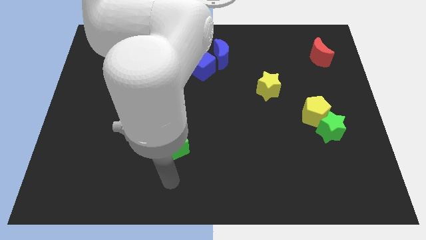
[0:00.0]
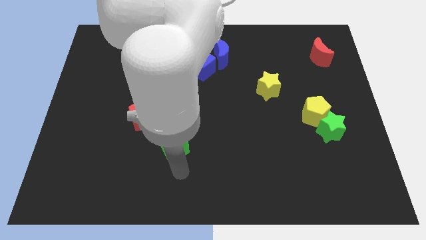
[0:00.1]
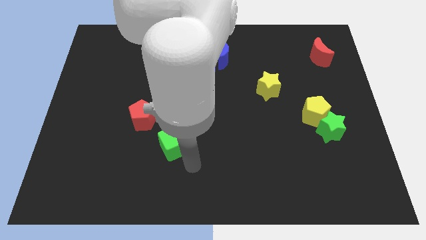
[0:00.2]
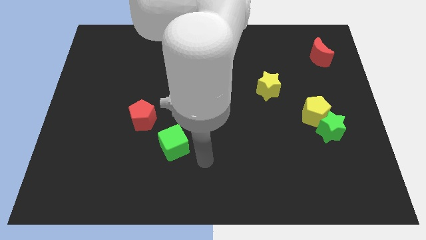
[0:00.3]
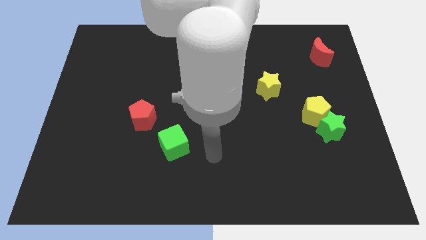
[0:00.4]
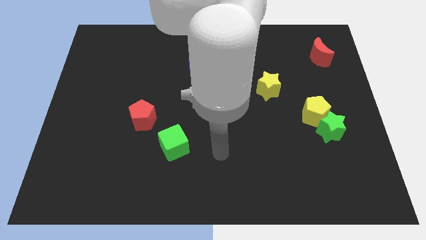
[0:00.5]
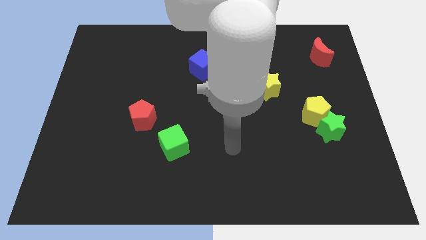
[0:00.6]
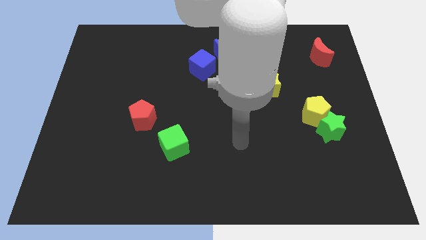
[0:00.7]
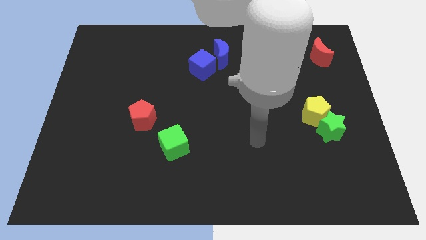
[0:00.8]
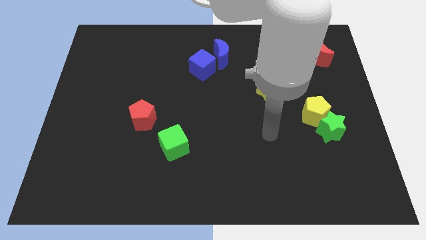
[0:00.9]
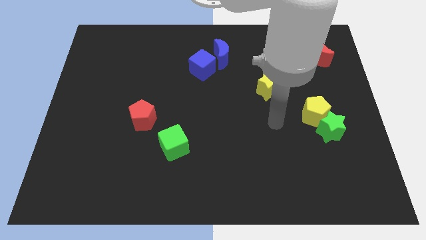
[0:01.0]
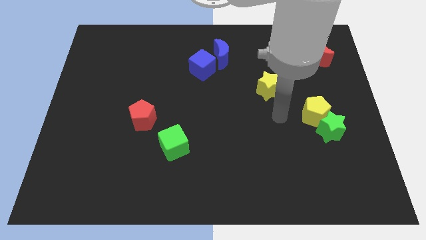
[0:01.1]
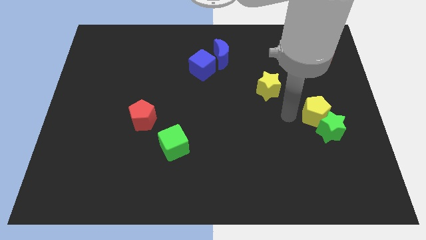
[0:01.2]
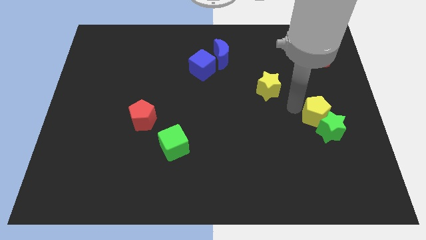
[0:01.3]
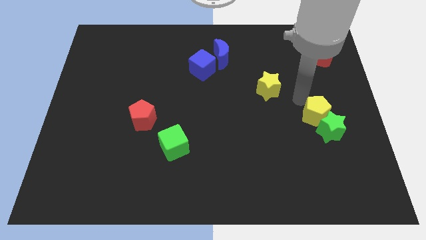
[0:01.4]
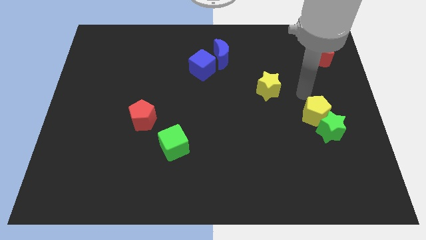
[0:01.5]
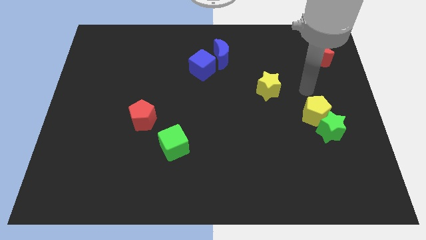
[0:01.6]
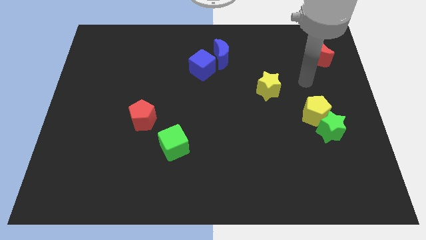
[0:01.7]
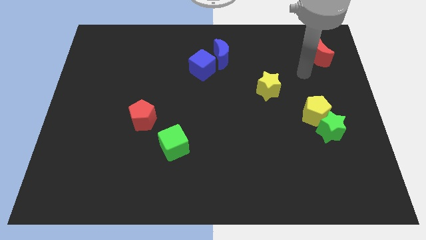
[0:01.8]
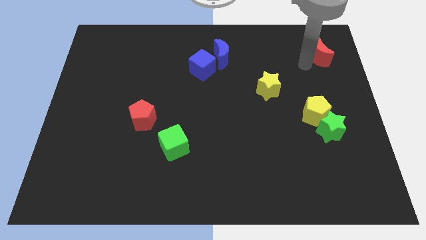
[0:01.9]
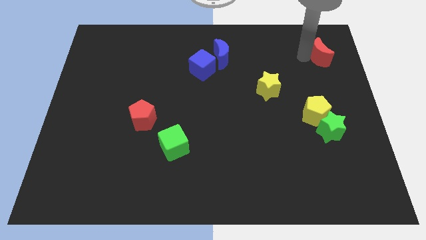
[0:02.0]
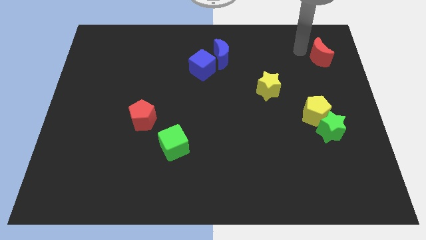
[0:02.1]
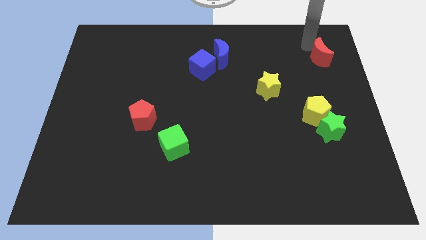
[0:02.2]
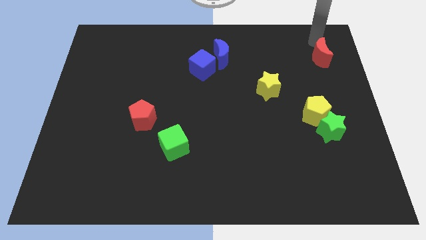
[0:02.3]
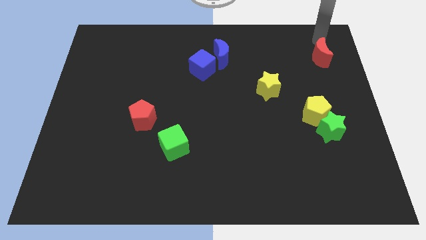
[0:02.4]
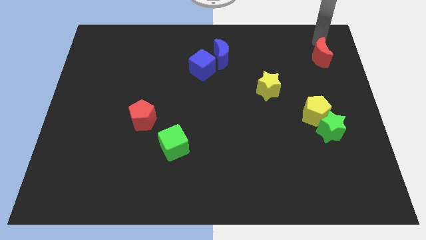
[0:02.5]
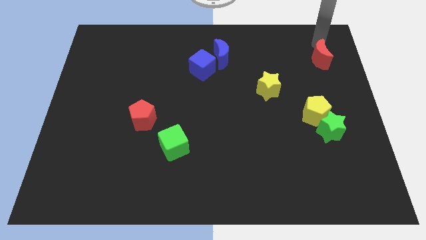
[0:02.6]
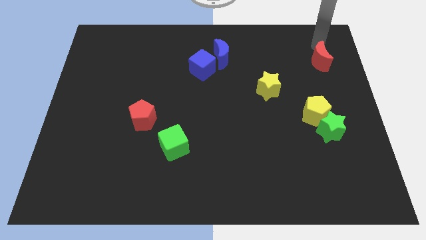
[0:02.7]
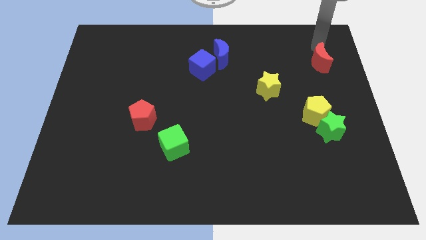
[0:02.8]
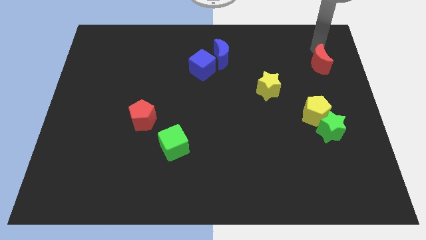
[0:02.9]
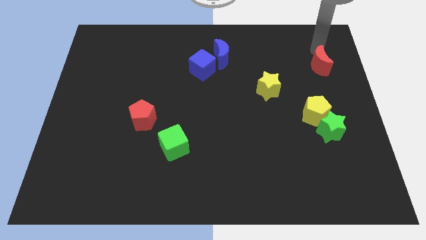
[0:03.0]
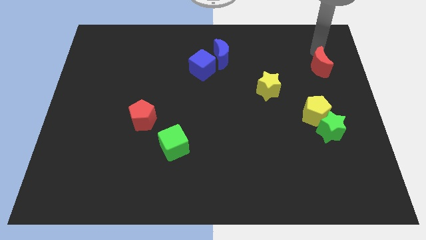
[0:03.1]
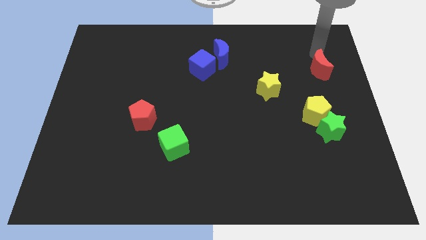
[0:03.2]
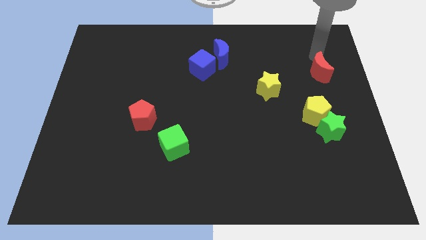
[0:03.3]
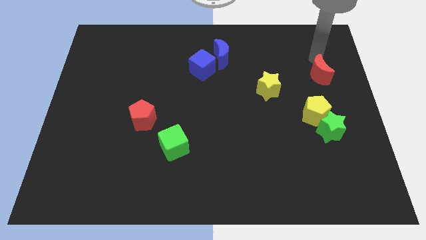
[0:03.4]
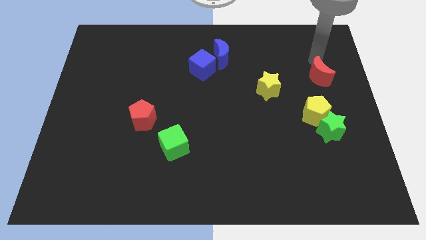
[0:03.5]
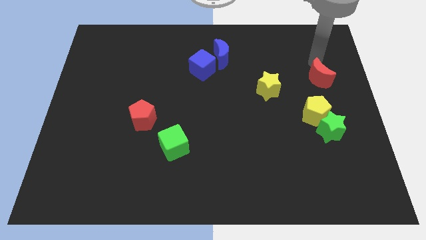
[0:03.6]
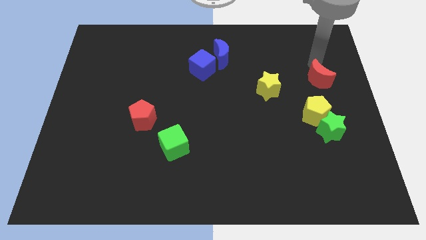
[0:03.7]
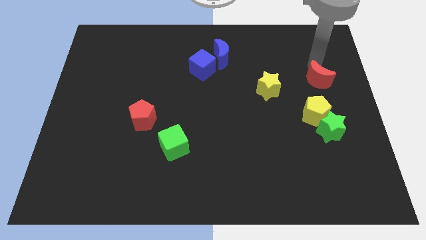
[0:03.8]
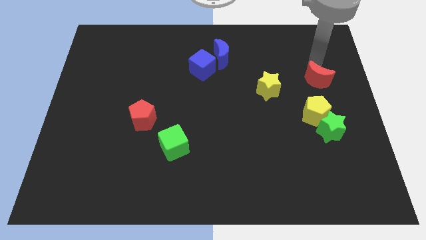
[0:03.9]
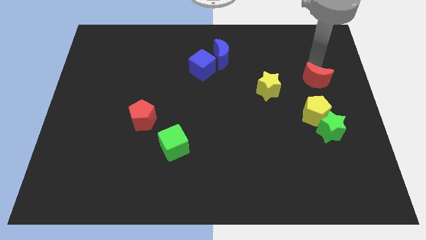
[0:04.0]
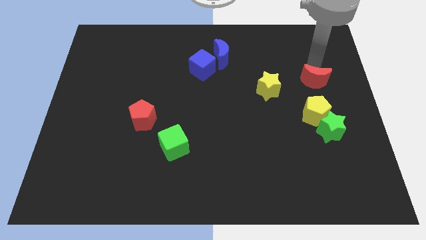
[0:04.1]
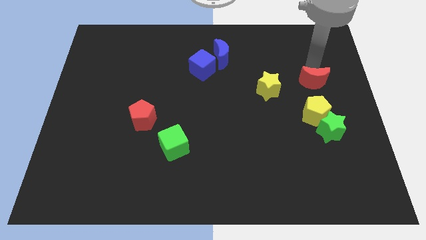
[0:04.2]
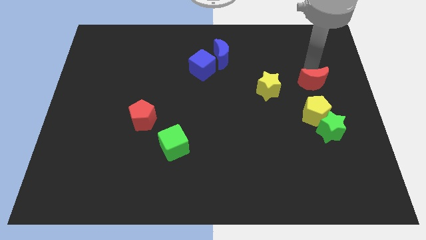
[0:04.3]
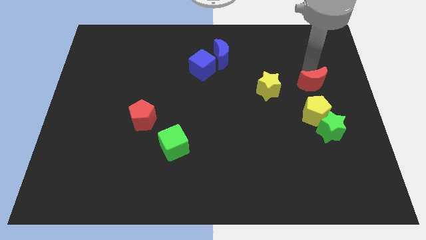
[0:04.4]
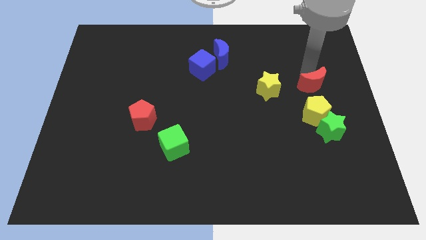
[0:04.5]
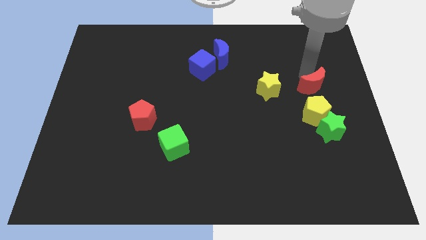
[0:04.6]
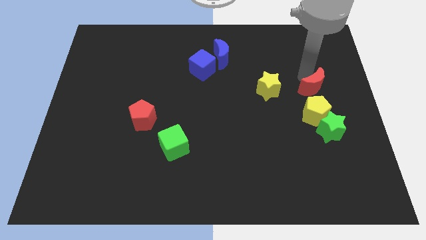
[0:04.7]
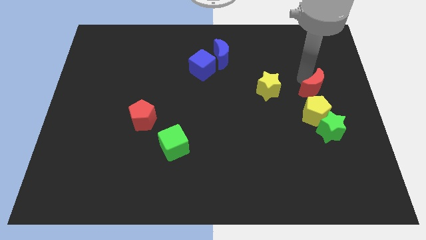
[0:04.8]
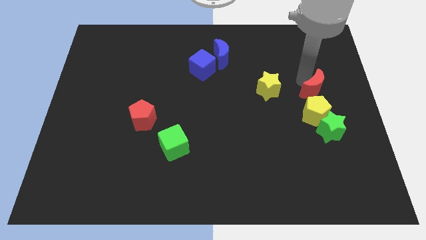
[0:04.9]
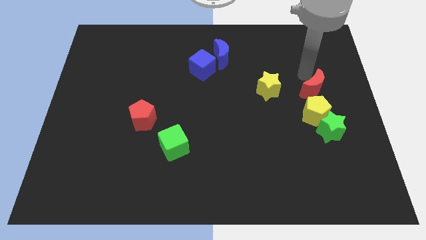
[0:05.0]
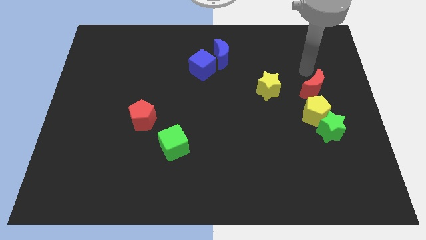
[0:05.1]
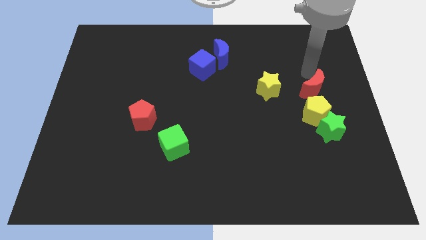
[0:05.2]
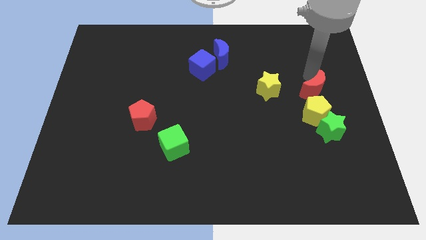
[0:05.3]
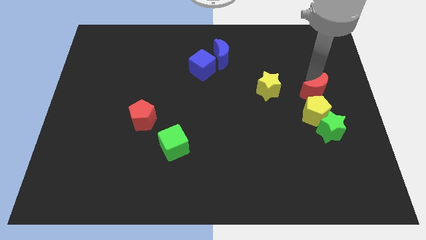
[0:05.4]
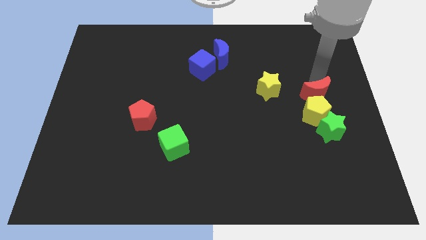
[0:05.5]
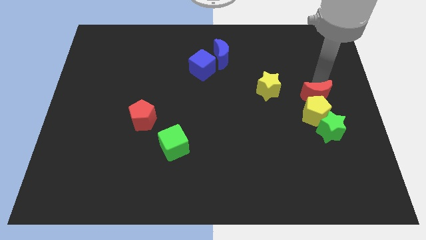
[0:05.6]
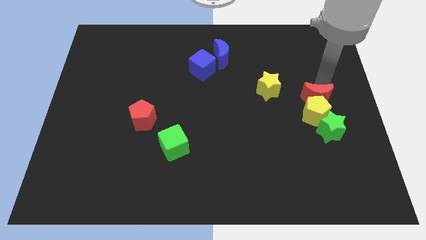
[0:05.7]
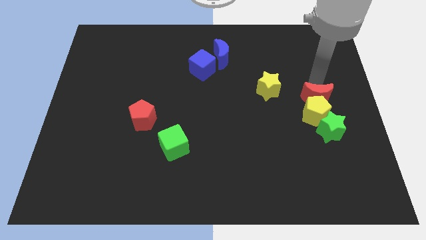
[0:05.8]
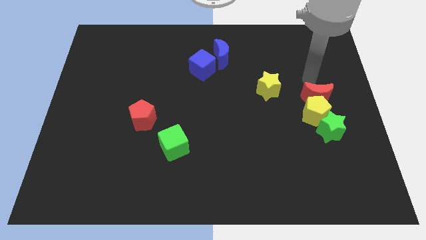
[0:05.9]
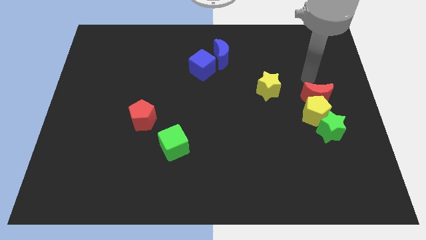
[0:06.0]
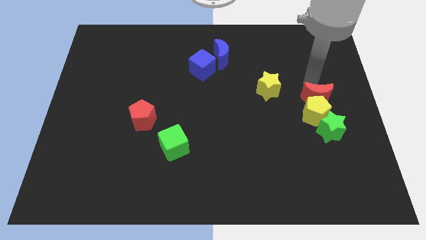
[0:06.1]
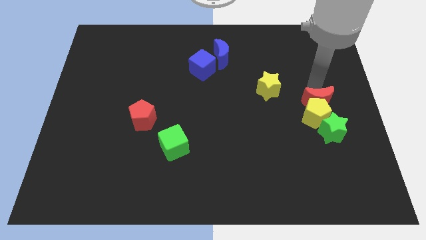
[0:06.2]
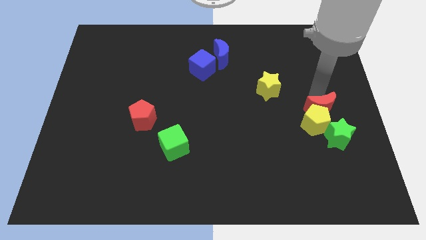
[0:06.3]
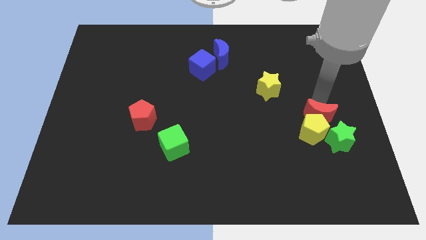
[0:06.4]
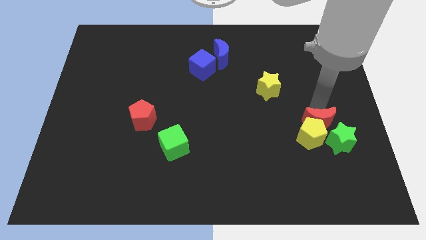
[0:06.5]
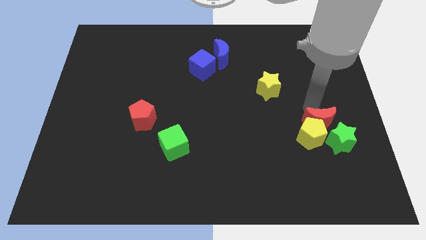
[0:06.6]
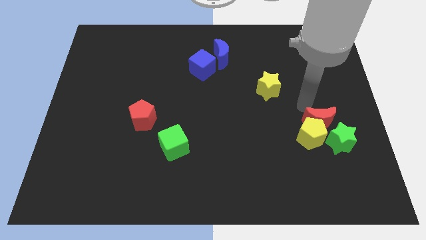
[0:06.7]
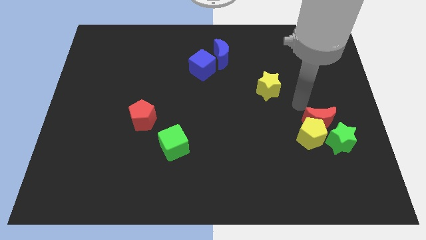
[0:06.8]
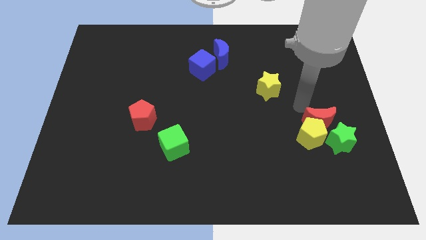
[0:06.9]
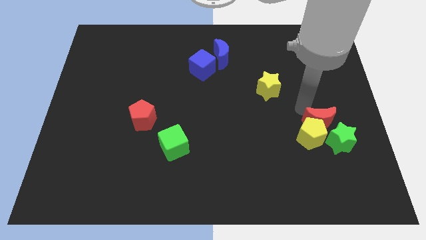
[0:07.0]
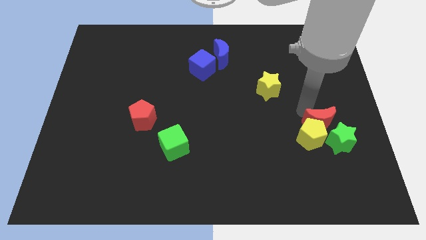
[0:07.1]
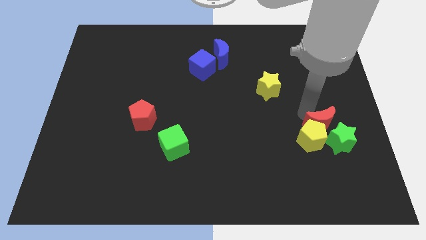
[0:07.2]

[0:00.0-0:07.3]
push the red moon next to the green star
